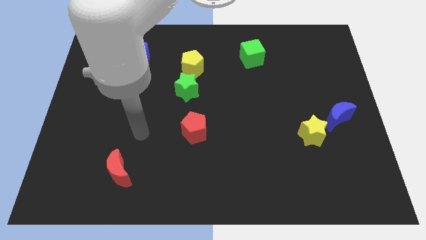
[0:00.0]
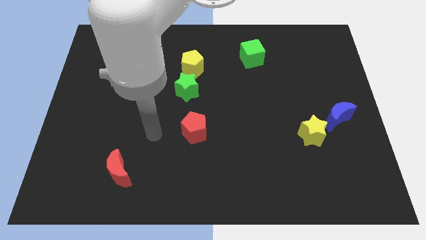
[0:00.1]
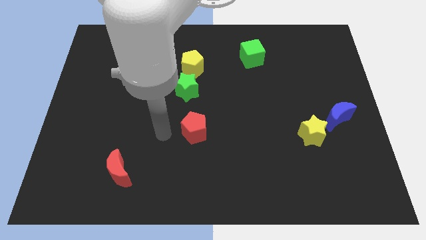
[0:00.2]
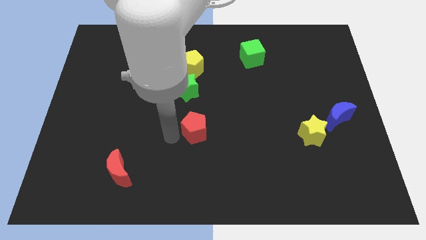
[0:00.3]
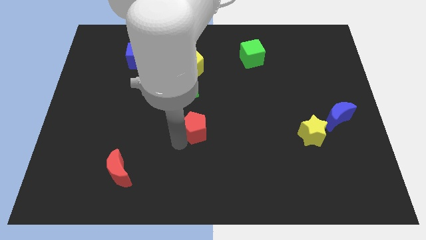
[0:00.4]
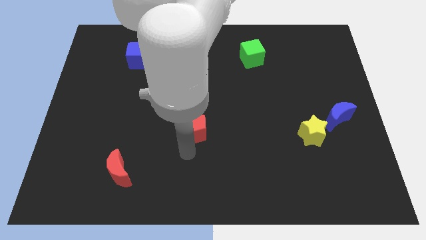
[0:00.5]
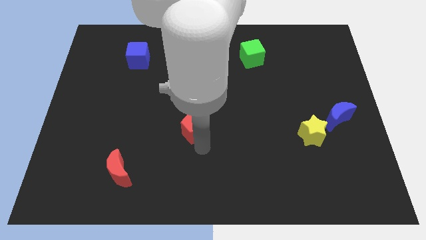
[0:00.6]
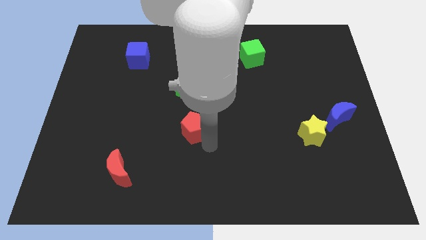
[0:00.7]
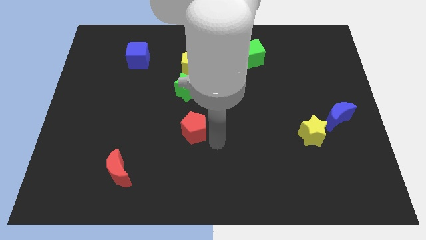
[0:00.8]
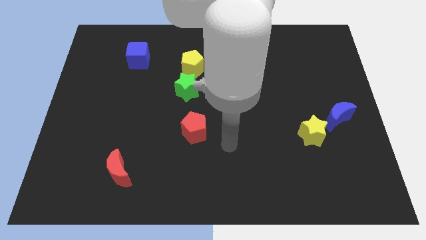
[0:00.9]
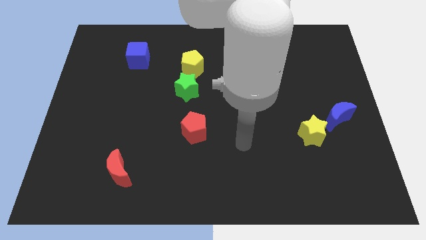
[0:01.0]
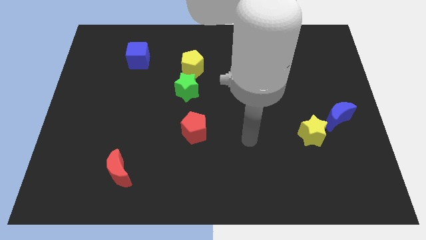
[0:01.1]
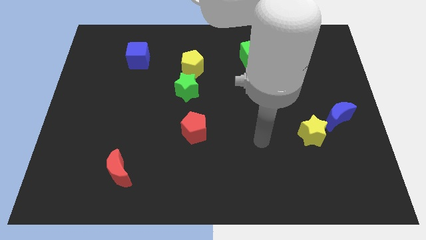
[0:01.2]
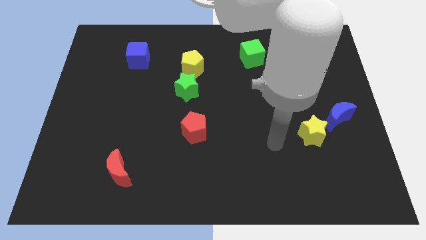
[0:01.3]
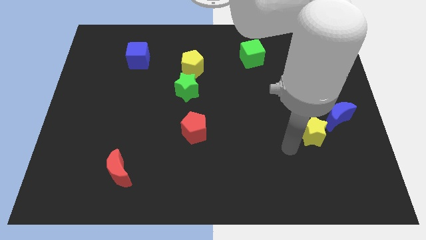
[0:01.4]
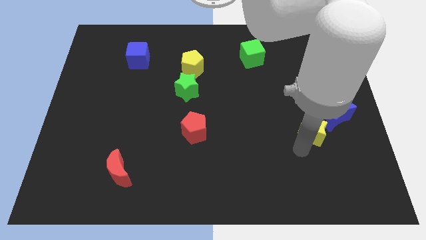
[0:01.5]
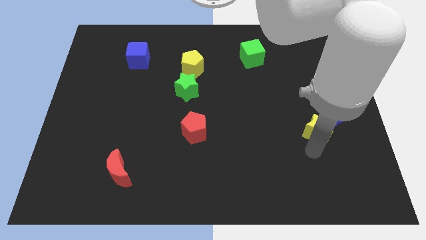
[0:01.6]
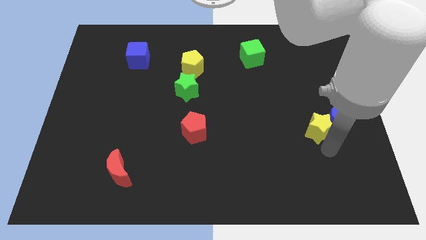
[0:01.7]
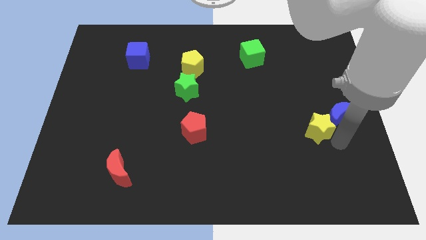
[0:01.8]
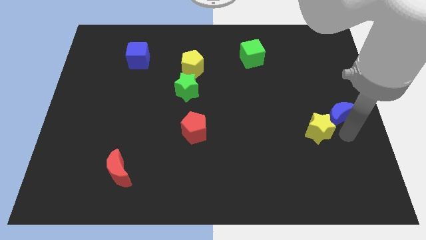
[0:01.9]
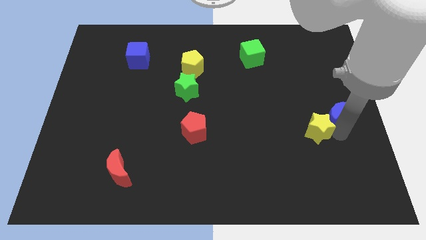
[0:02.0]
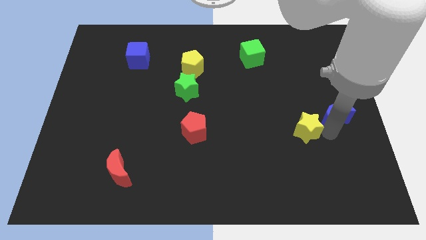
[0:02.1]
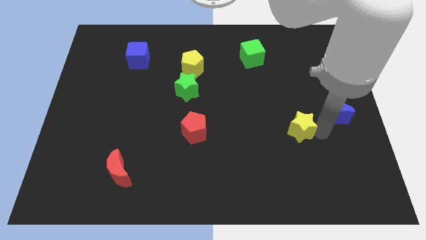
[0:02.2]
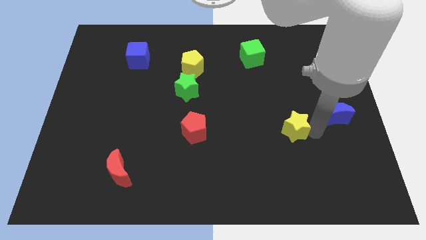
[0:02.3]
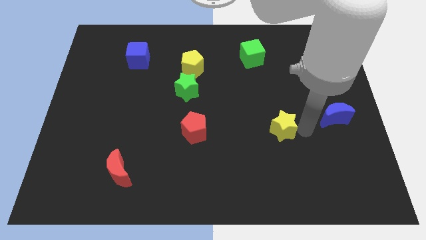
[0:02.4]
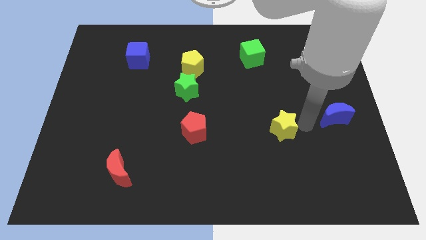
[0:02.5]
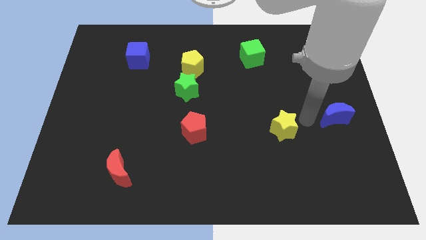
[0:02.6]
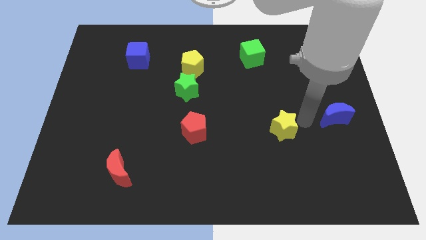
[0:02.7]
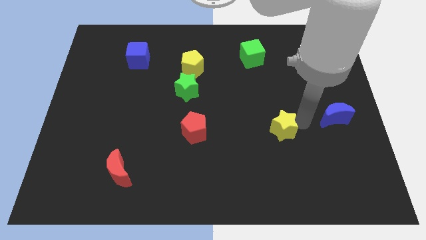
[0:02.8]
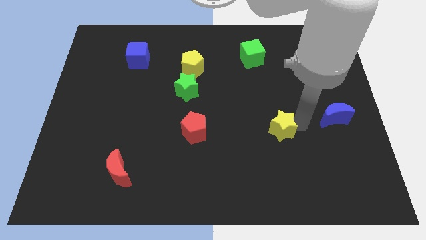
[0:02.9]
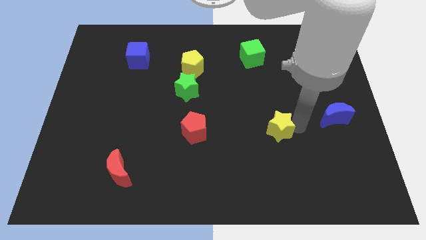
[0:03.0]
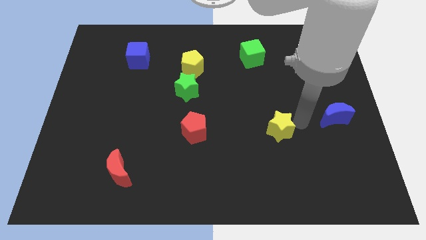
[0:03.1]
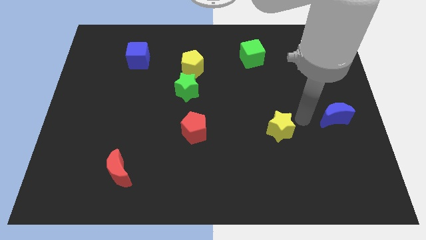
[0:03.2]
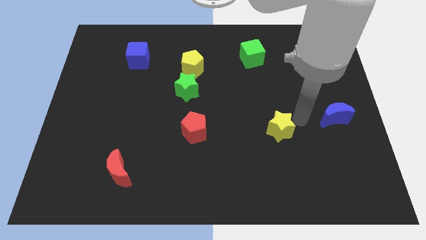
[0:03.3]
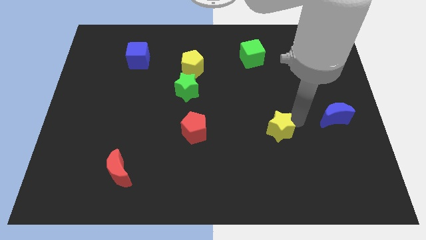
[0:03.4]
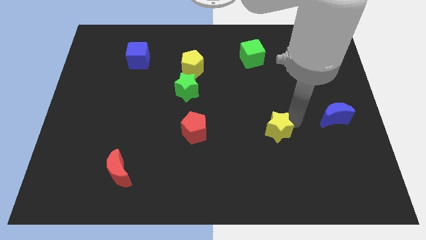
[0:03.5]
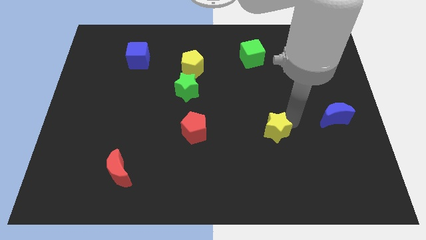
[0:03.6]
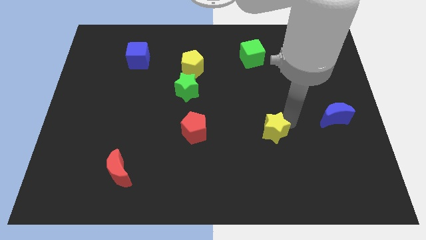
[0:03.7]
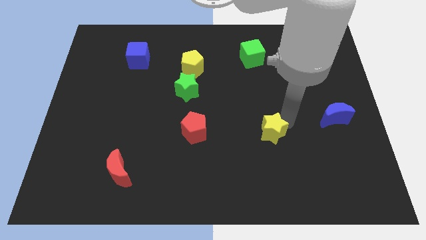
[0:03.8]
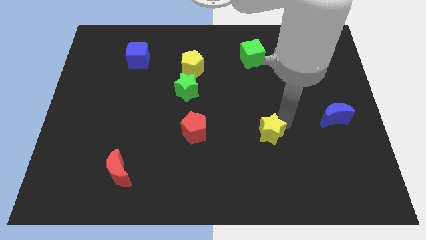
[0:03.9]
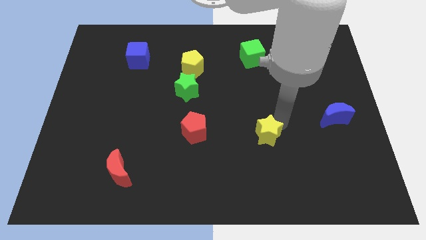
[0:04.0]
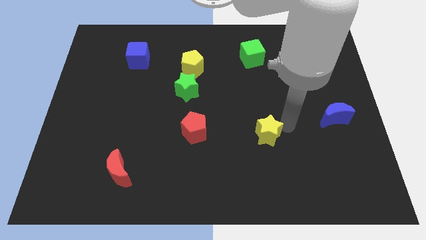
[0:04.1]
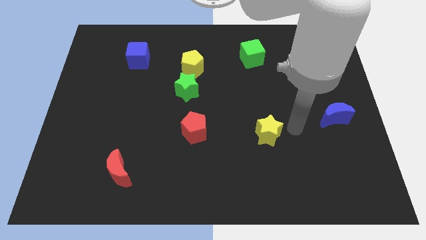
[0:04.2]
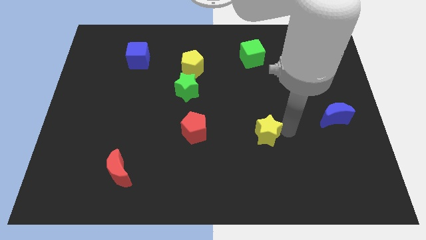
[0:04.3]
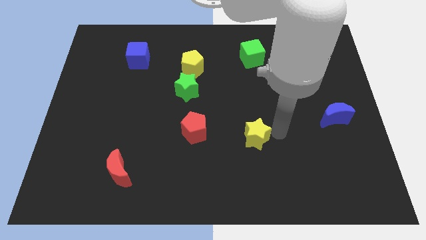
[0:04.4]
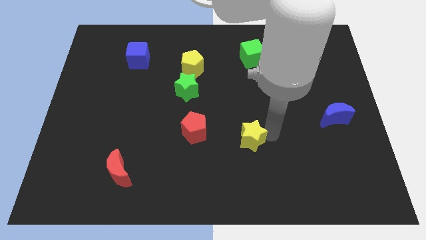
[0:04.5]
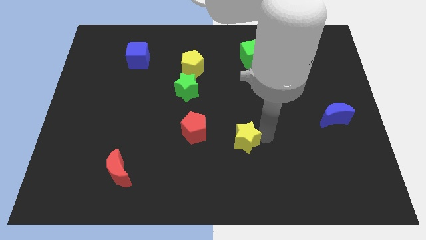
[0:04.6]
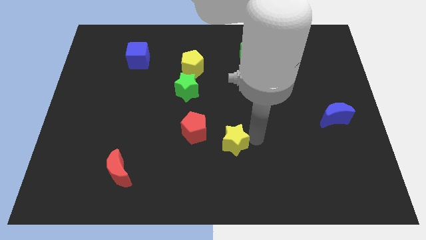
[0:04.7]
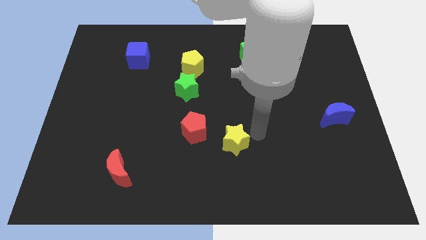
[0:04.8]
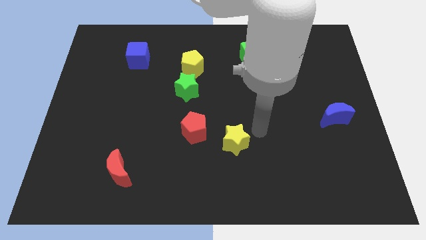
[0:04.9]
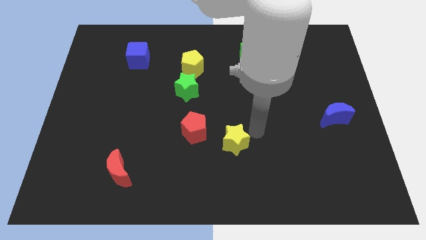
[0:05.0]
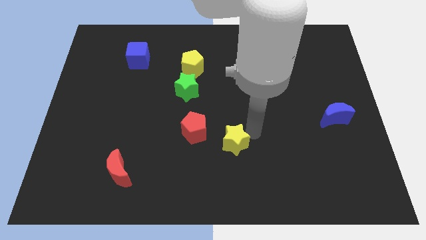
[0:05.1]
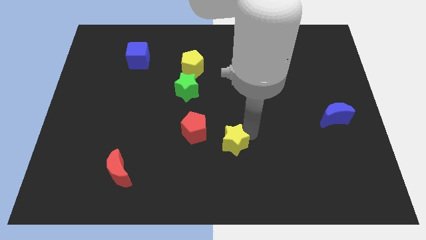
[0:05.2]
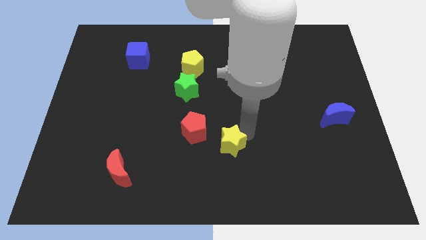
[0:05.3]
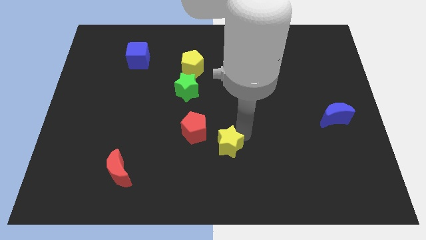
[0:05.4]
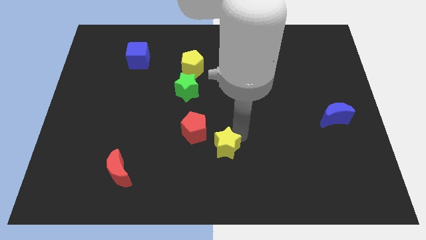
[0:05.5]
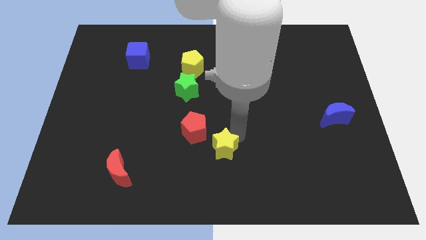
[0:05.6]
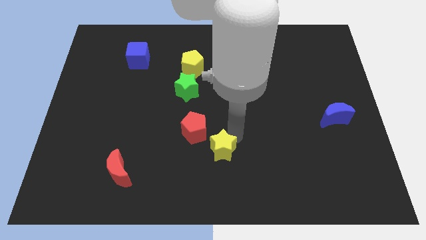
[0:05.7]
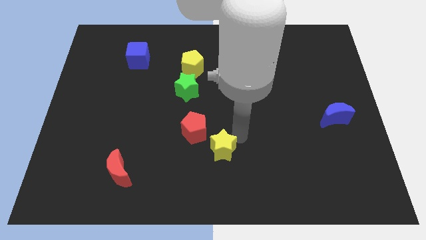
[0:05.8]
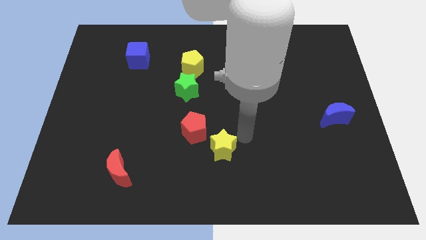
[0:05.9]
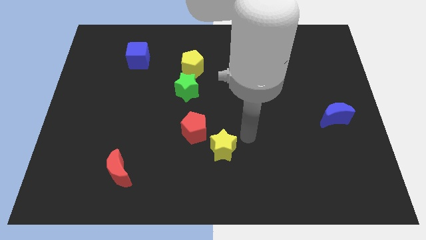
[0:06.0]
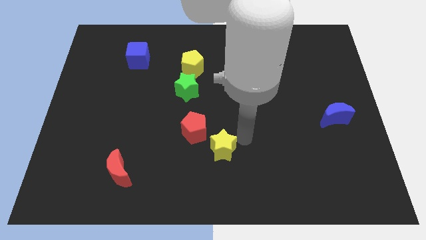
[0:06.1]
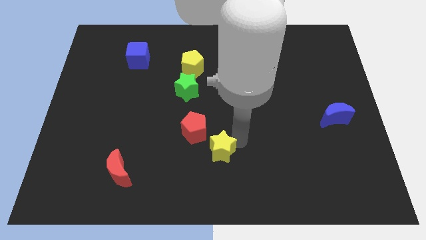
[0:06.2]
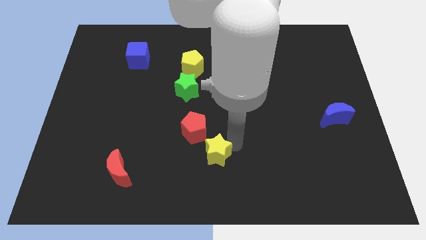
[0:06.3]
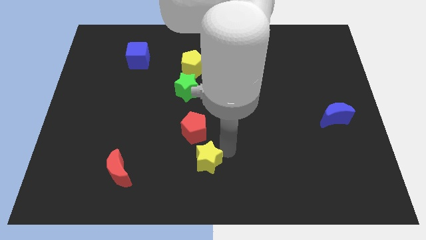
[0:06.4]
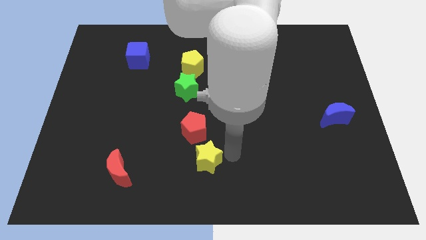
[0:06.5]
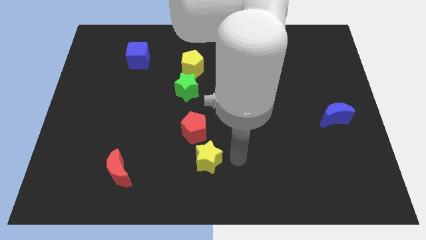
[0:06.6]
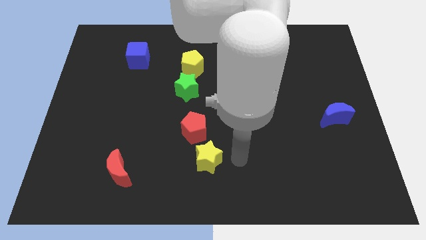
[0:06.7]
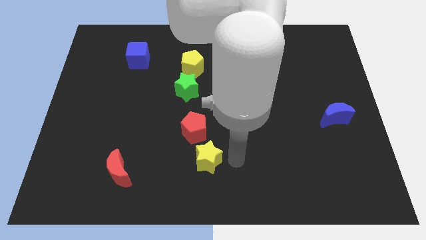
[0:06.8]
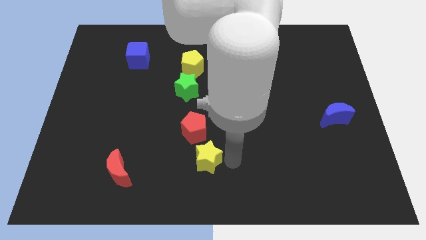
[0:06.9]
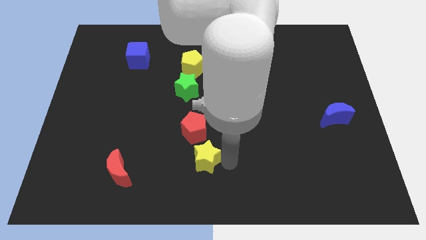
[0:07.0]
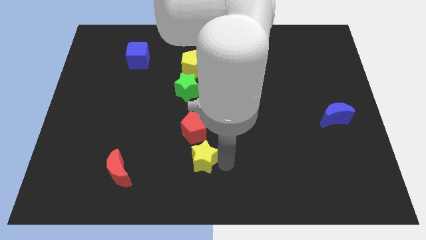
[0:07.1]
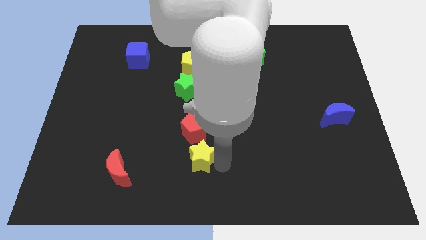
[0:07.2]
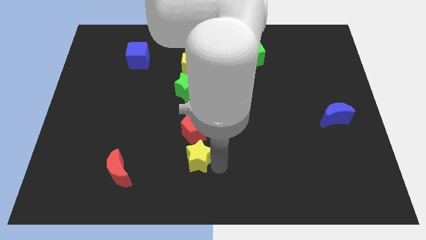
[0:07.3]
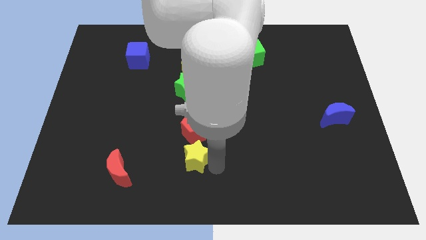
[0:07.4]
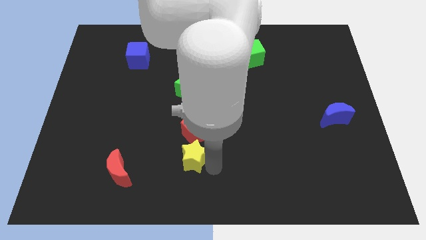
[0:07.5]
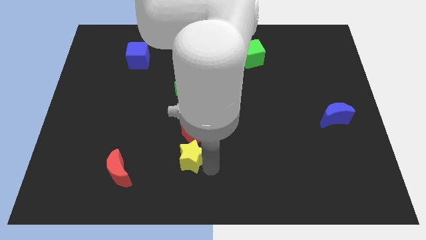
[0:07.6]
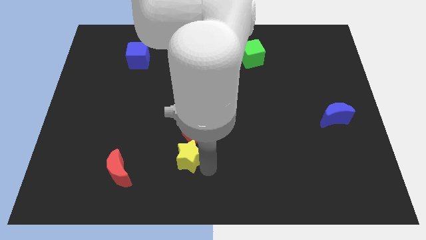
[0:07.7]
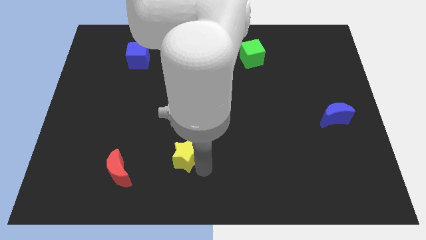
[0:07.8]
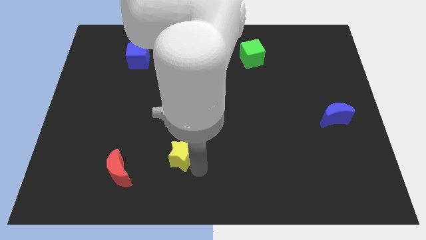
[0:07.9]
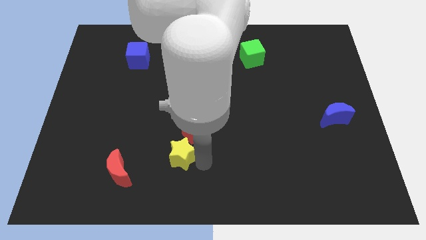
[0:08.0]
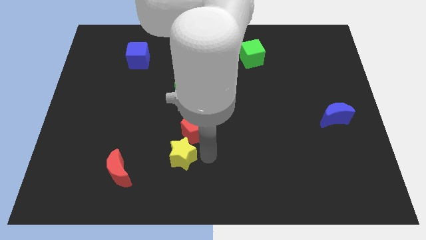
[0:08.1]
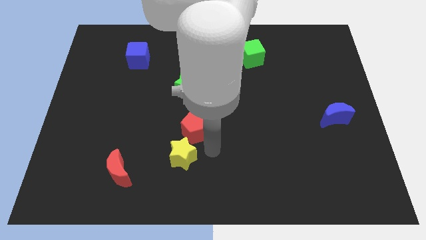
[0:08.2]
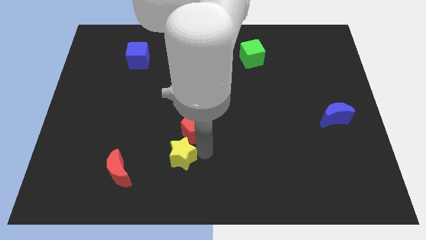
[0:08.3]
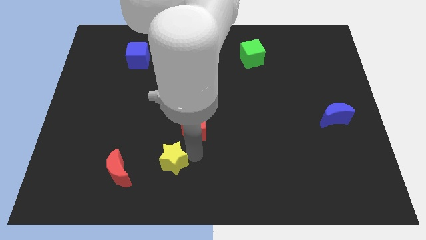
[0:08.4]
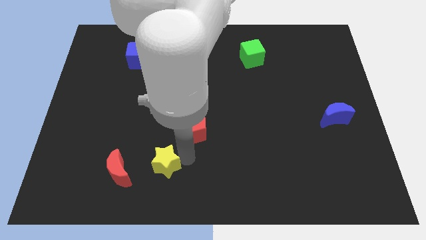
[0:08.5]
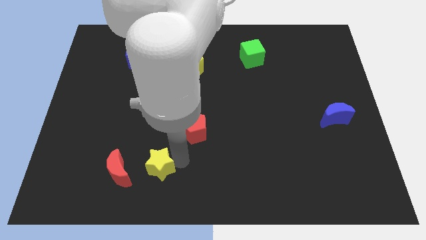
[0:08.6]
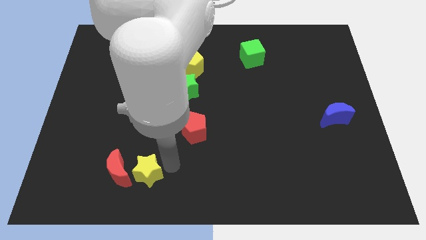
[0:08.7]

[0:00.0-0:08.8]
move the yellow star to the red moon
